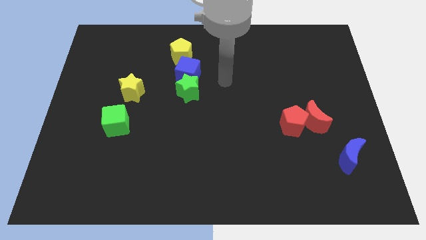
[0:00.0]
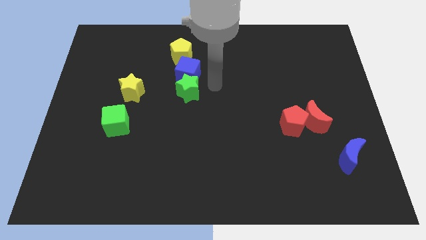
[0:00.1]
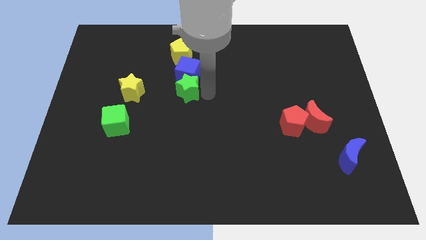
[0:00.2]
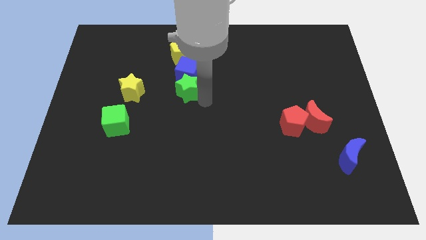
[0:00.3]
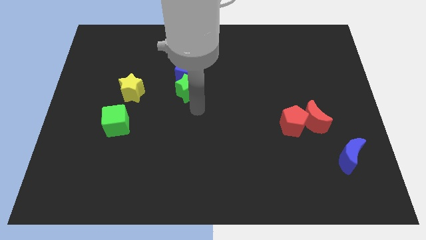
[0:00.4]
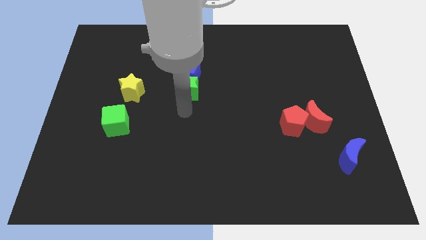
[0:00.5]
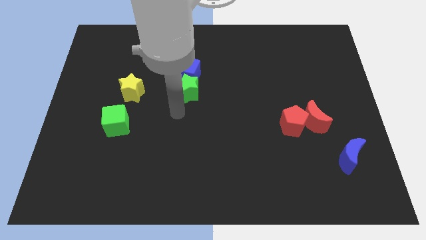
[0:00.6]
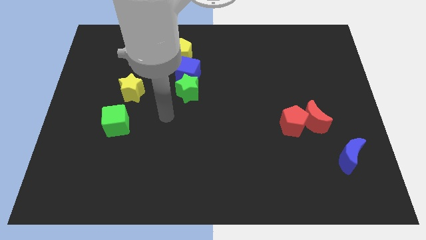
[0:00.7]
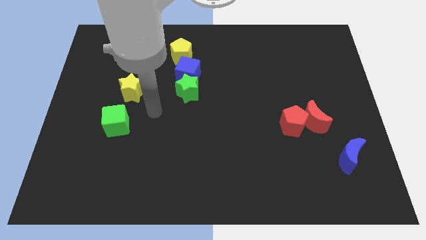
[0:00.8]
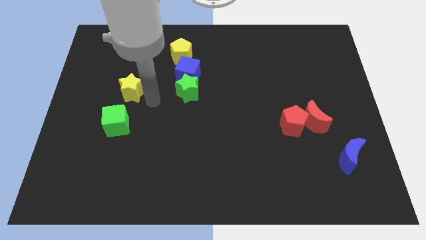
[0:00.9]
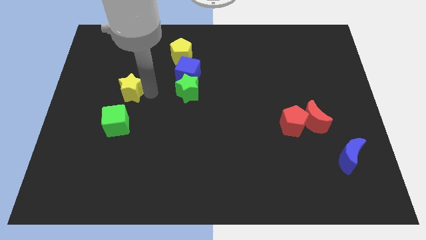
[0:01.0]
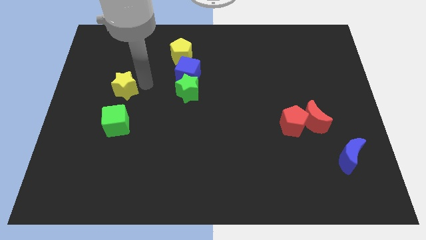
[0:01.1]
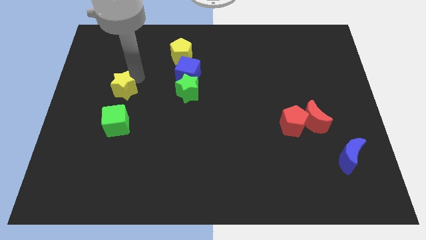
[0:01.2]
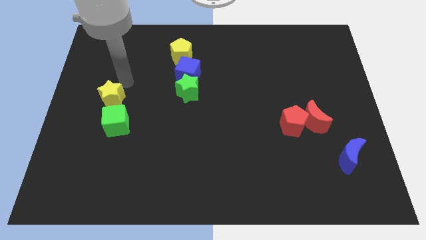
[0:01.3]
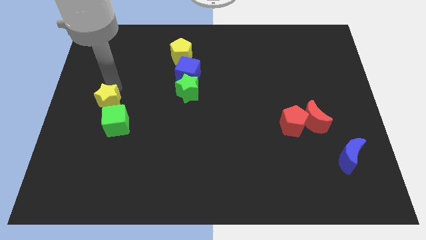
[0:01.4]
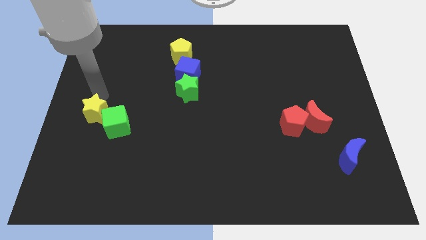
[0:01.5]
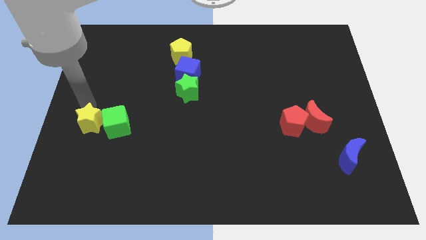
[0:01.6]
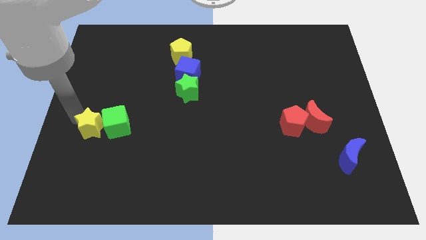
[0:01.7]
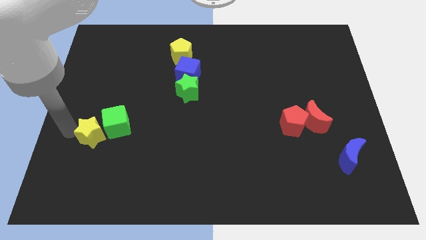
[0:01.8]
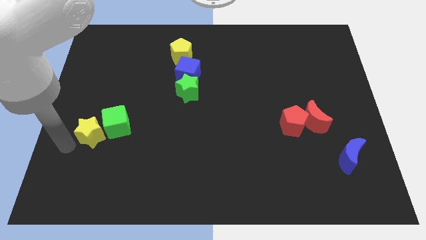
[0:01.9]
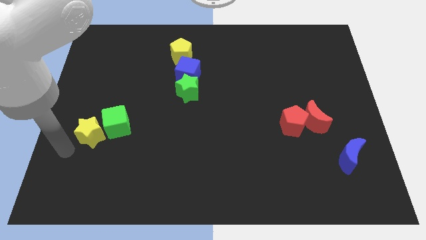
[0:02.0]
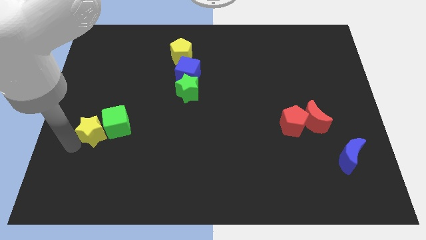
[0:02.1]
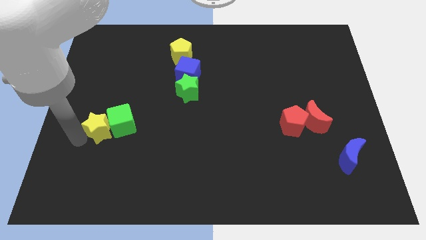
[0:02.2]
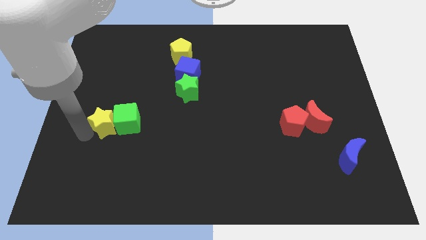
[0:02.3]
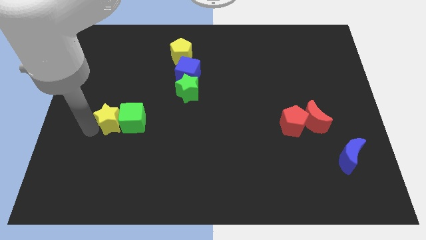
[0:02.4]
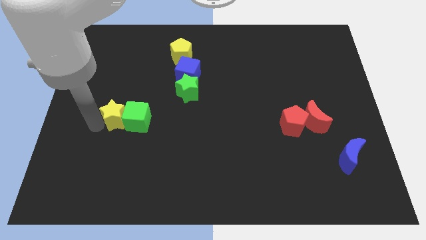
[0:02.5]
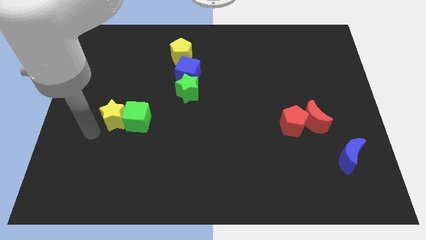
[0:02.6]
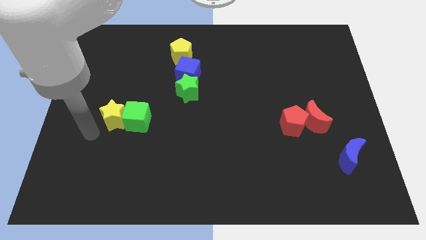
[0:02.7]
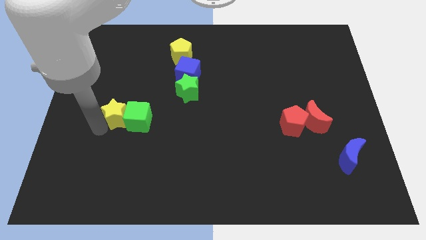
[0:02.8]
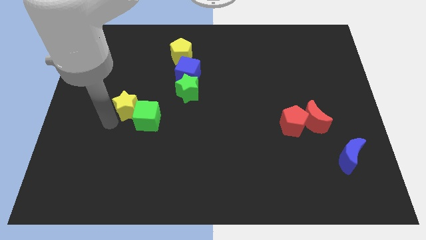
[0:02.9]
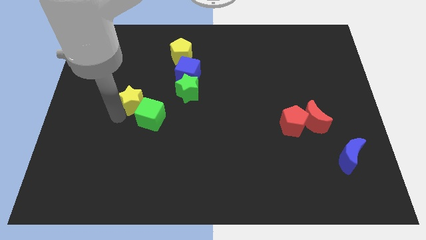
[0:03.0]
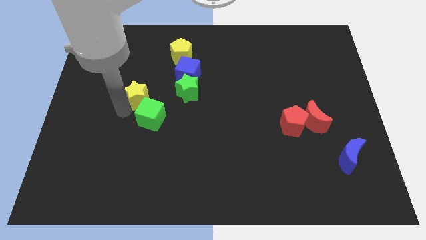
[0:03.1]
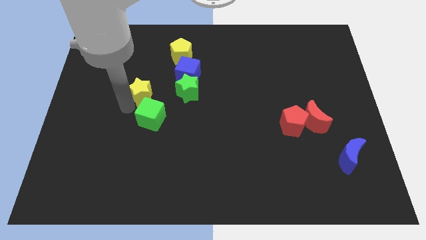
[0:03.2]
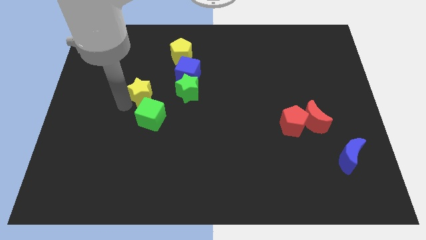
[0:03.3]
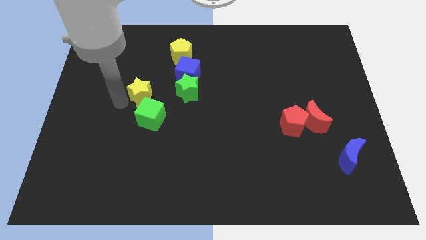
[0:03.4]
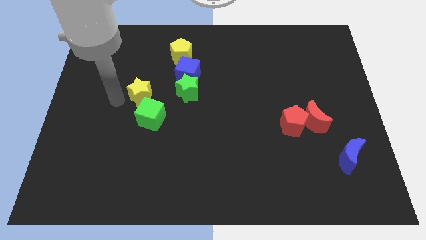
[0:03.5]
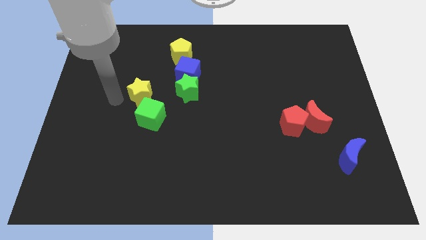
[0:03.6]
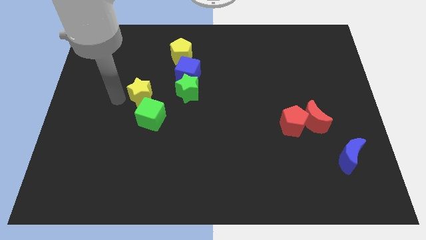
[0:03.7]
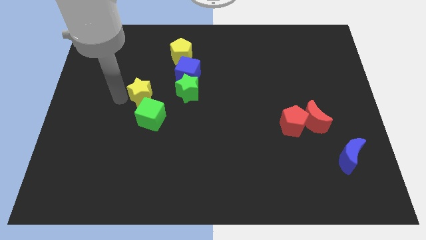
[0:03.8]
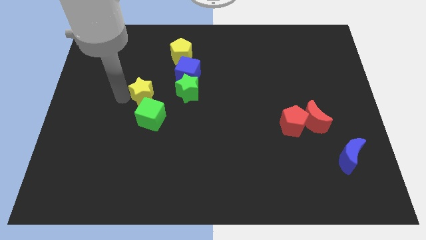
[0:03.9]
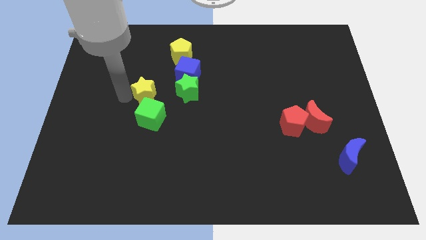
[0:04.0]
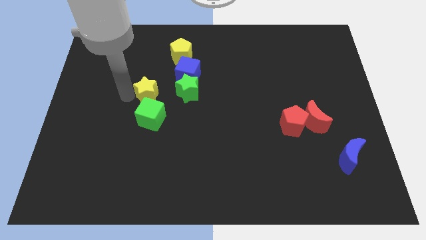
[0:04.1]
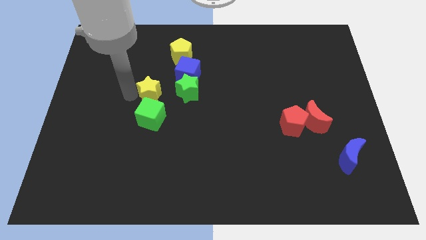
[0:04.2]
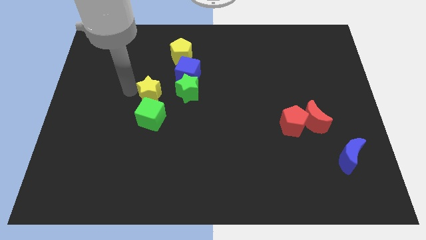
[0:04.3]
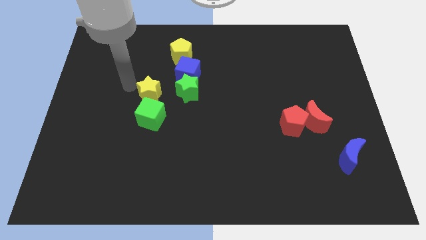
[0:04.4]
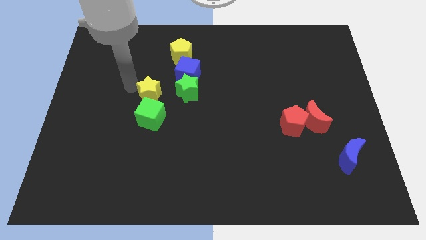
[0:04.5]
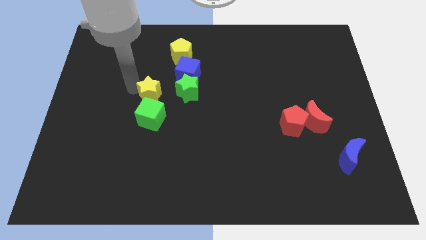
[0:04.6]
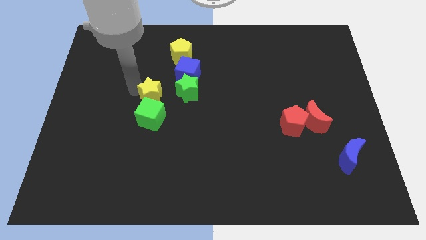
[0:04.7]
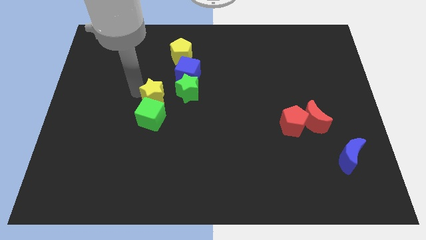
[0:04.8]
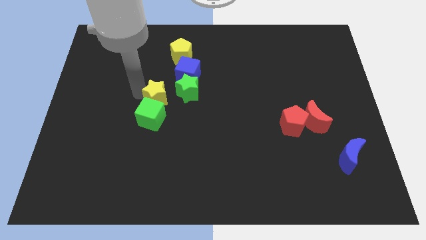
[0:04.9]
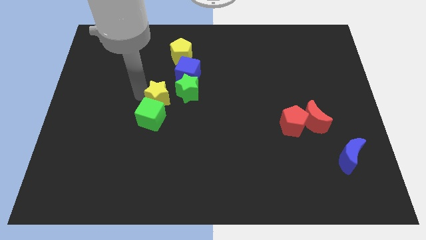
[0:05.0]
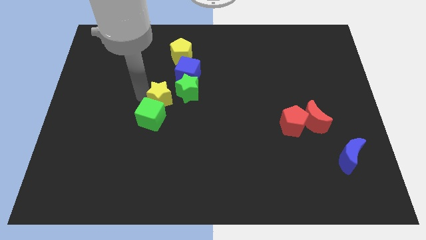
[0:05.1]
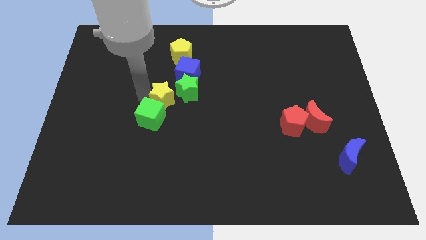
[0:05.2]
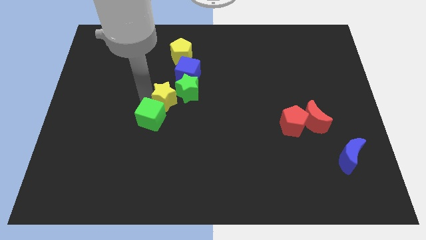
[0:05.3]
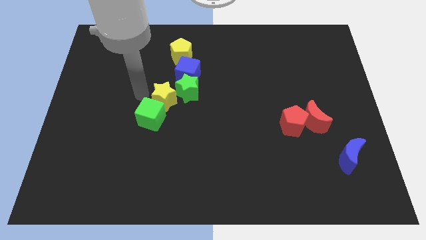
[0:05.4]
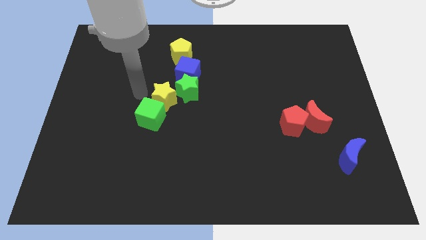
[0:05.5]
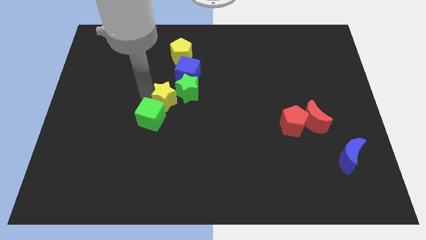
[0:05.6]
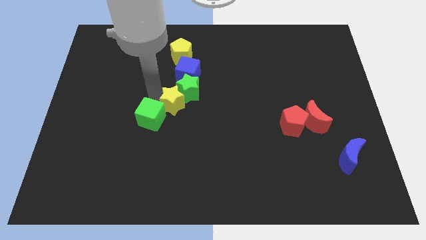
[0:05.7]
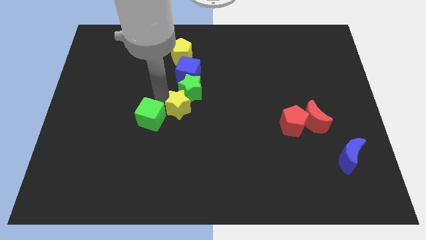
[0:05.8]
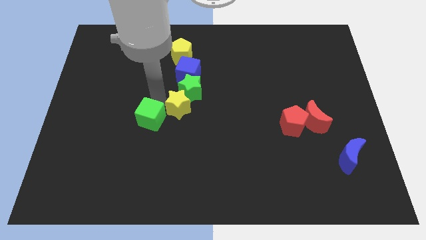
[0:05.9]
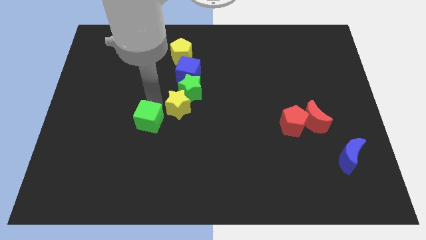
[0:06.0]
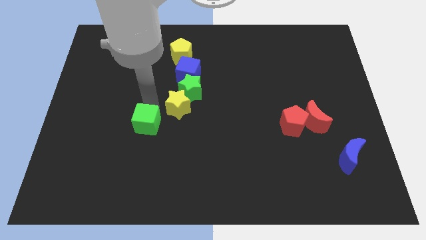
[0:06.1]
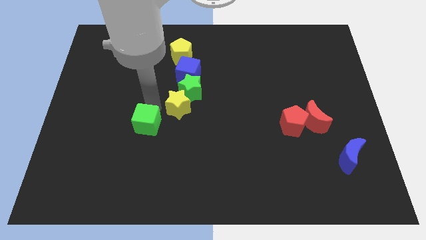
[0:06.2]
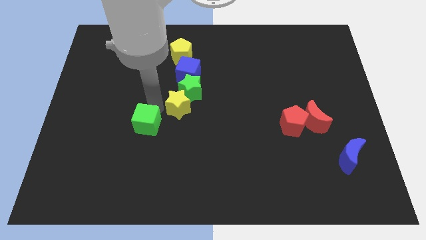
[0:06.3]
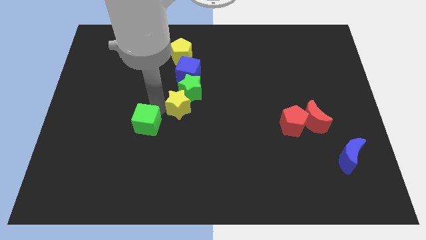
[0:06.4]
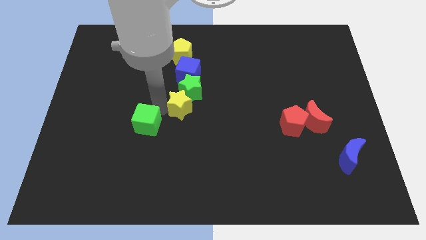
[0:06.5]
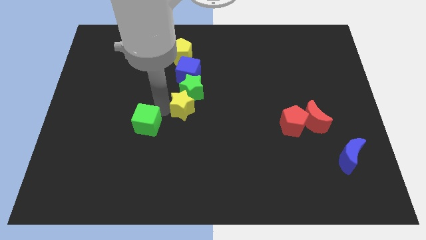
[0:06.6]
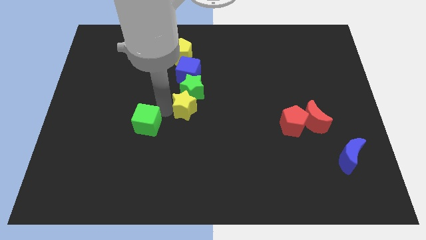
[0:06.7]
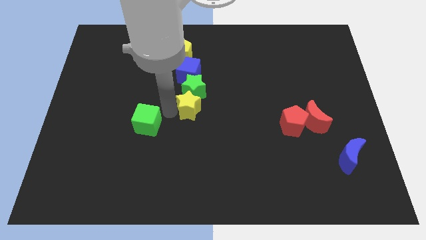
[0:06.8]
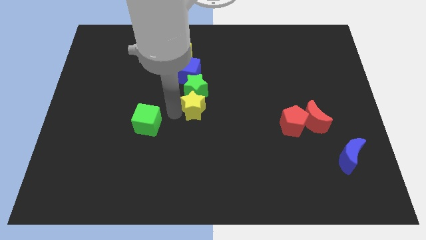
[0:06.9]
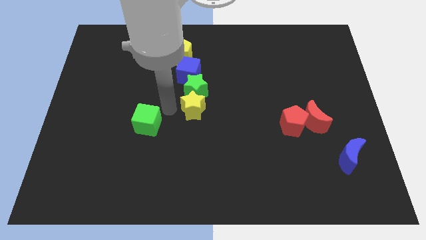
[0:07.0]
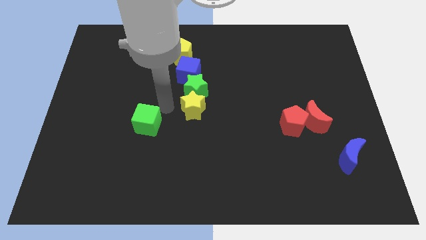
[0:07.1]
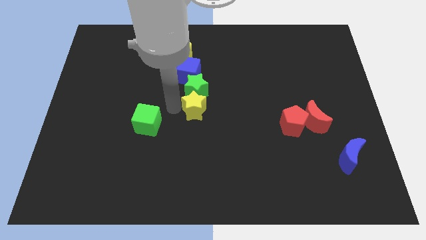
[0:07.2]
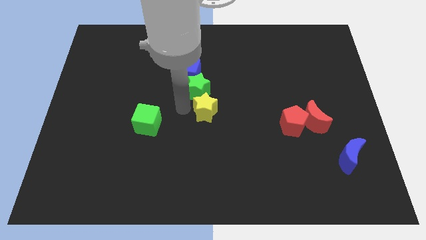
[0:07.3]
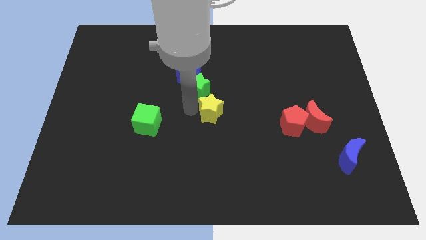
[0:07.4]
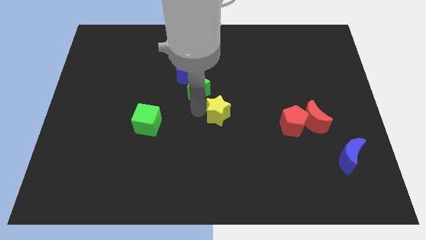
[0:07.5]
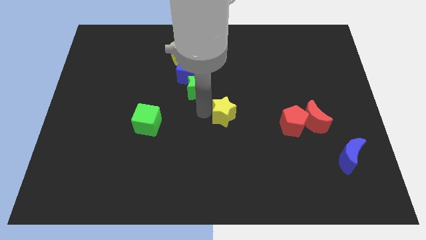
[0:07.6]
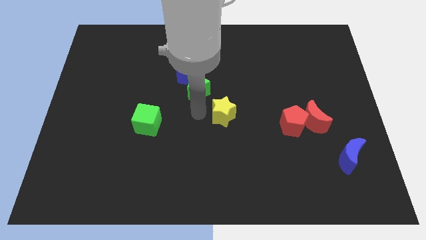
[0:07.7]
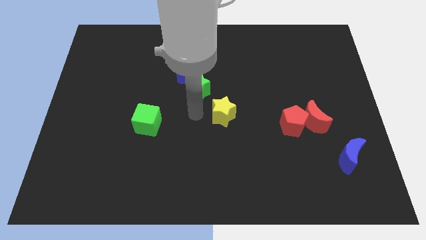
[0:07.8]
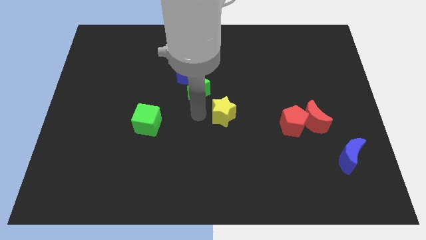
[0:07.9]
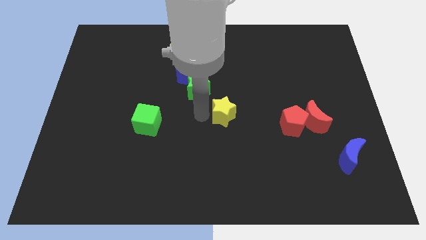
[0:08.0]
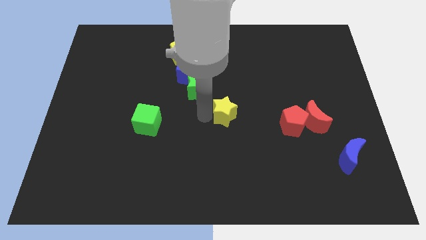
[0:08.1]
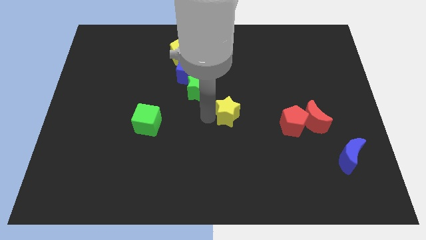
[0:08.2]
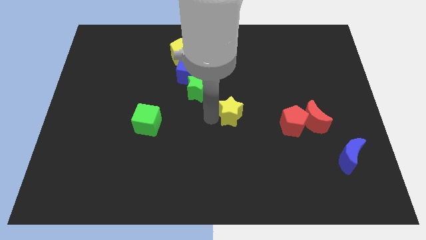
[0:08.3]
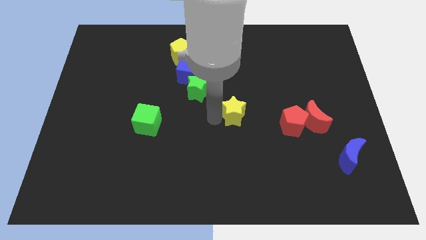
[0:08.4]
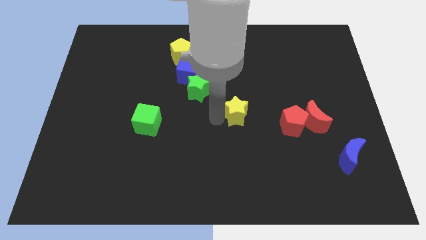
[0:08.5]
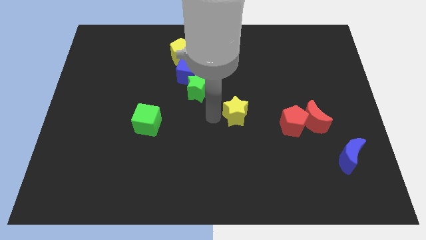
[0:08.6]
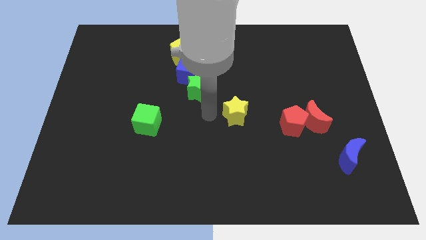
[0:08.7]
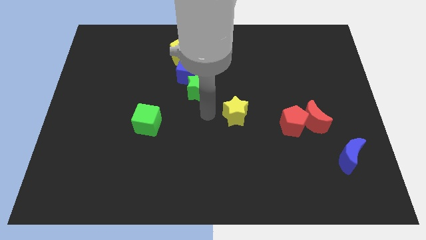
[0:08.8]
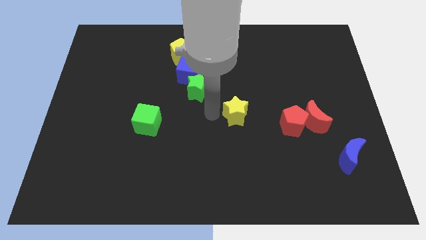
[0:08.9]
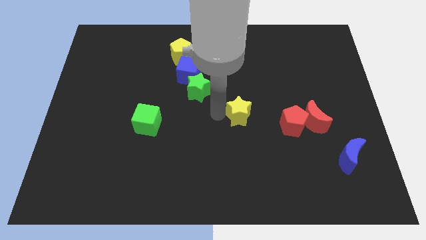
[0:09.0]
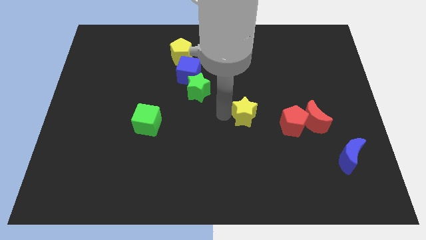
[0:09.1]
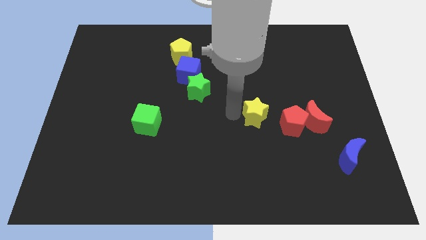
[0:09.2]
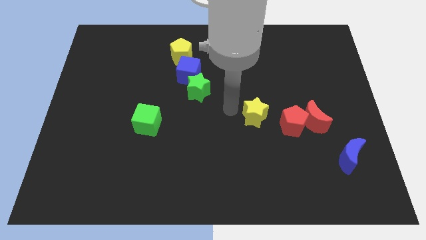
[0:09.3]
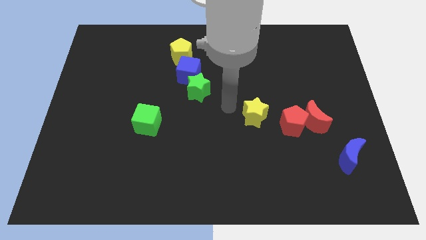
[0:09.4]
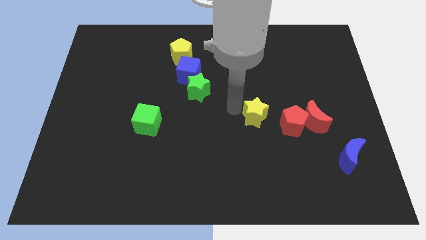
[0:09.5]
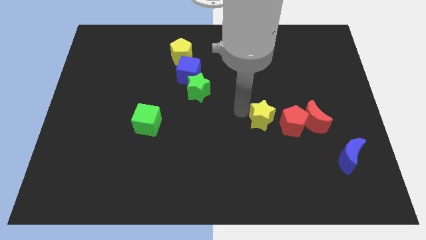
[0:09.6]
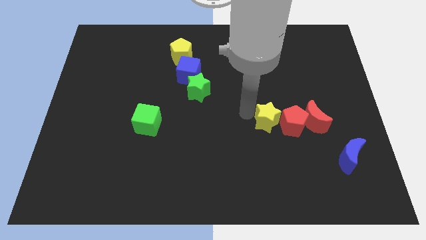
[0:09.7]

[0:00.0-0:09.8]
move the yellow star close to the red pentagon
